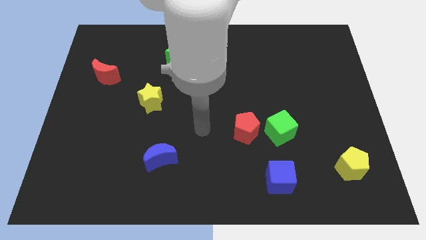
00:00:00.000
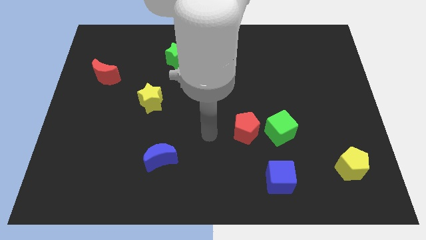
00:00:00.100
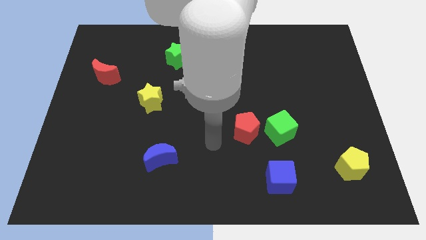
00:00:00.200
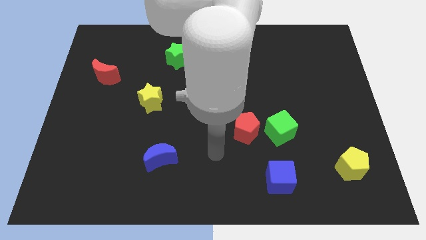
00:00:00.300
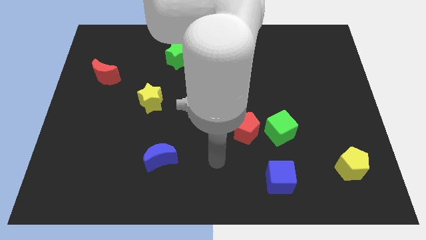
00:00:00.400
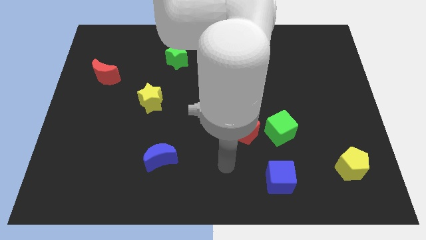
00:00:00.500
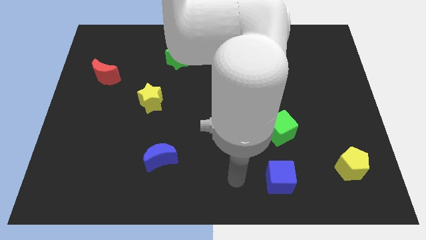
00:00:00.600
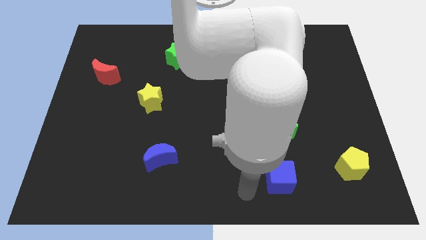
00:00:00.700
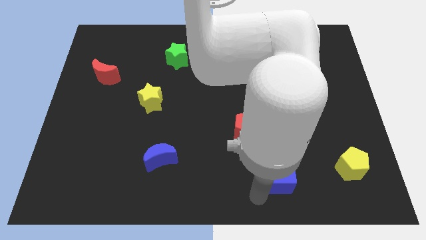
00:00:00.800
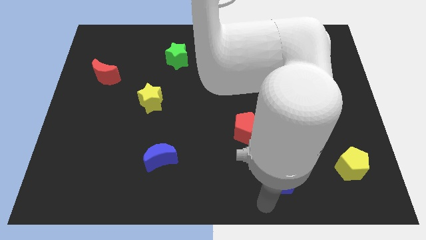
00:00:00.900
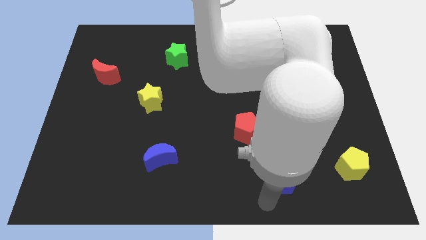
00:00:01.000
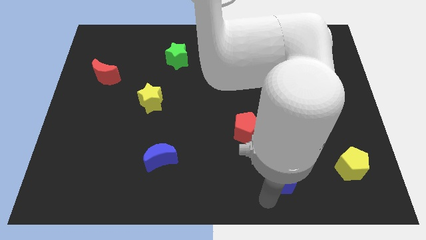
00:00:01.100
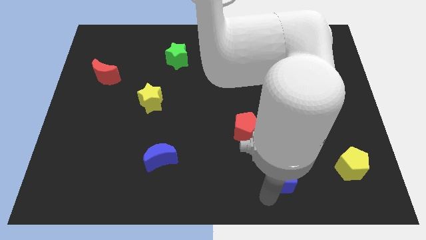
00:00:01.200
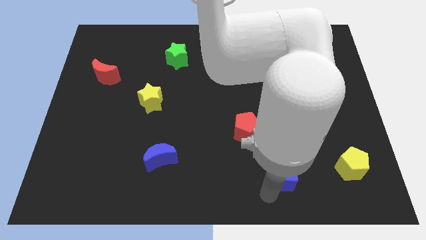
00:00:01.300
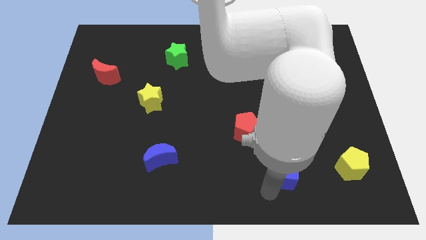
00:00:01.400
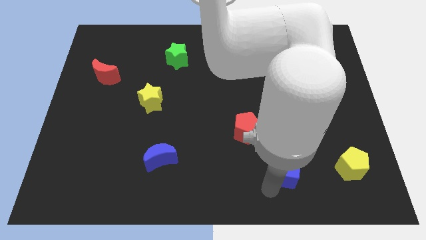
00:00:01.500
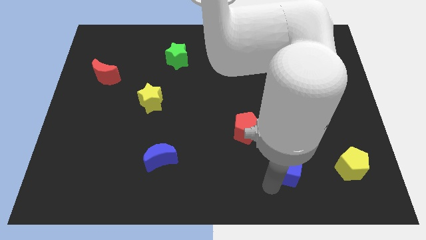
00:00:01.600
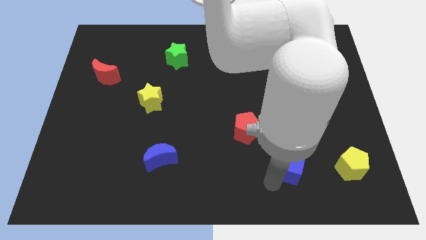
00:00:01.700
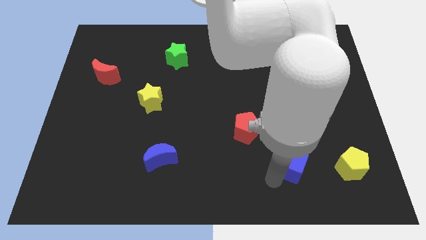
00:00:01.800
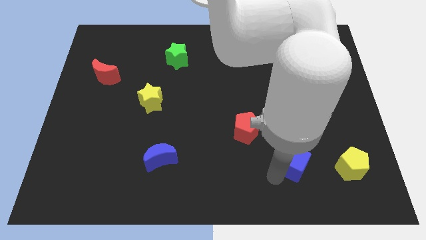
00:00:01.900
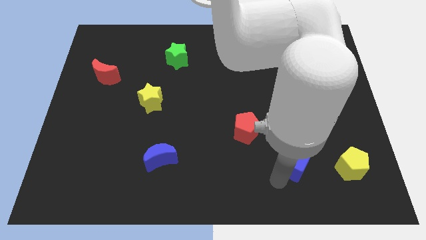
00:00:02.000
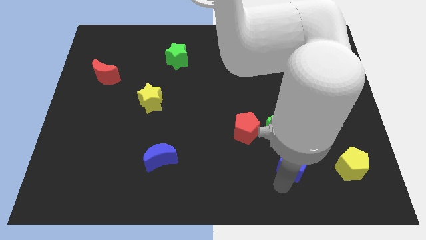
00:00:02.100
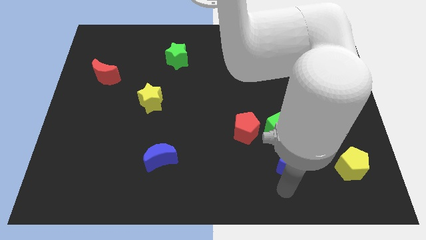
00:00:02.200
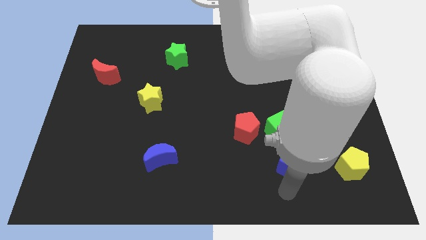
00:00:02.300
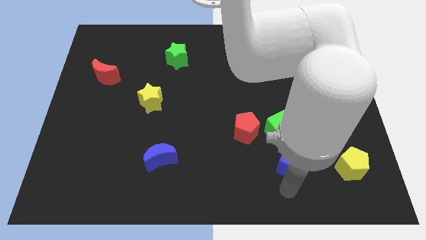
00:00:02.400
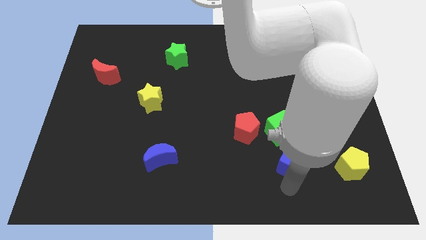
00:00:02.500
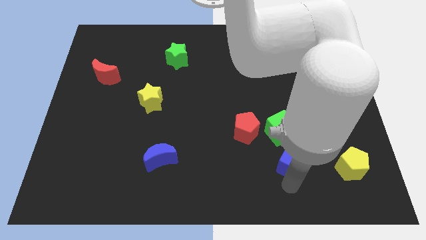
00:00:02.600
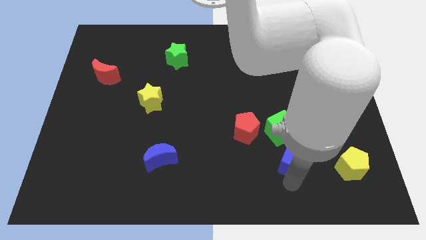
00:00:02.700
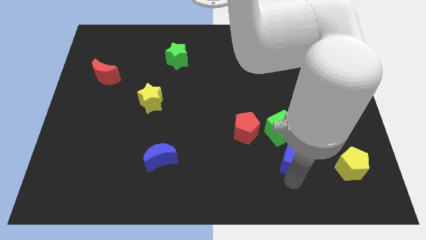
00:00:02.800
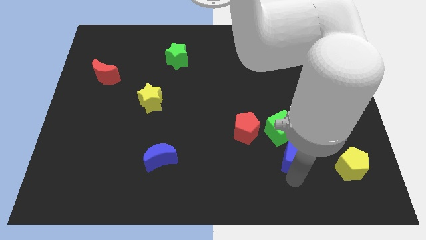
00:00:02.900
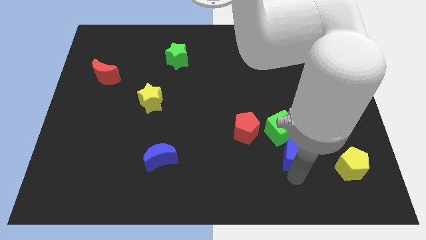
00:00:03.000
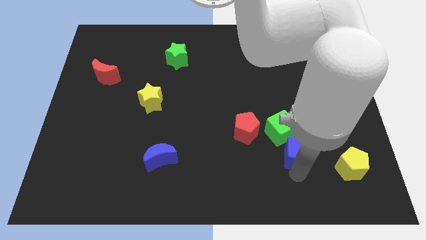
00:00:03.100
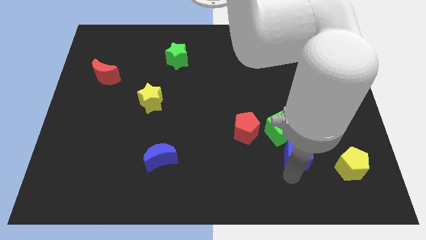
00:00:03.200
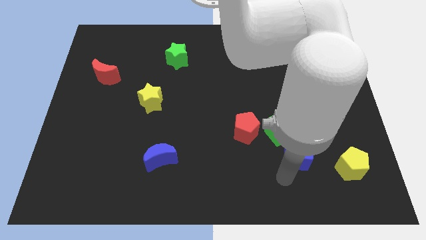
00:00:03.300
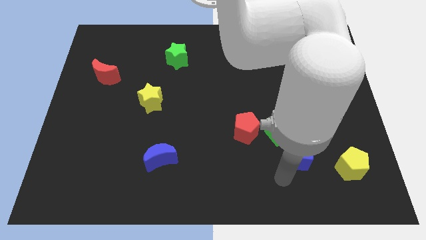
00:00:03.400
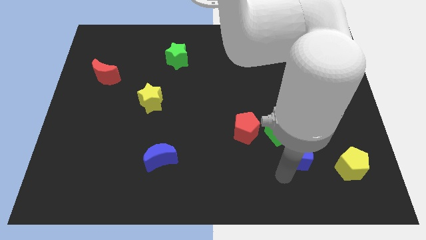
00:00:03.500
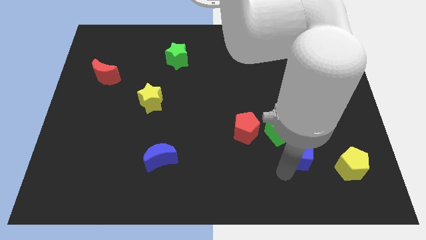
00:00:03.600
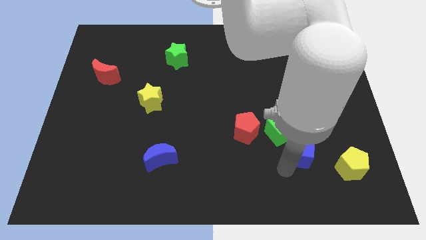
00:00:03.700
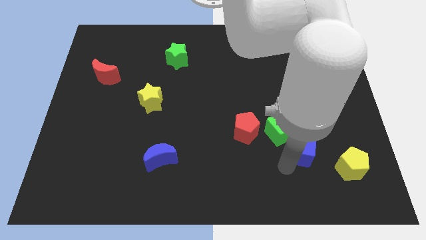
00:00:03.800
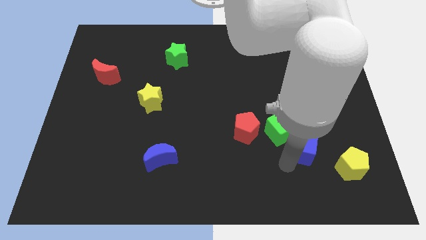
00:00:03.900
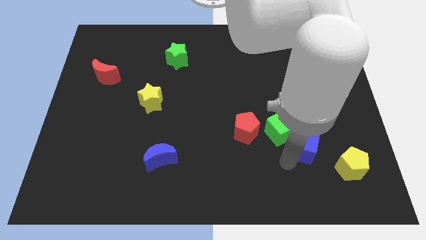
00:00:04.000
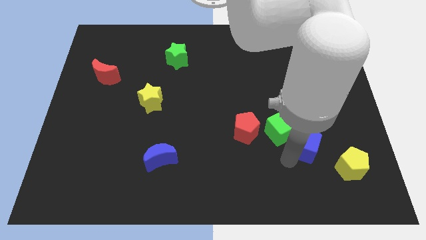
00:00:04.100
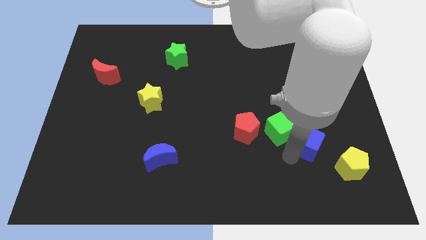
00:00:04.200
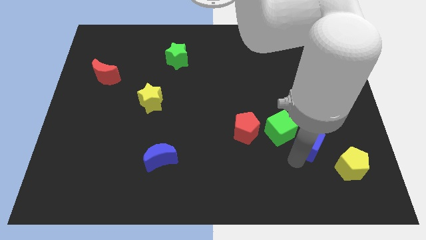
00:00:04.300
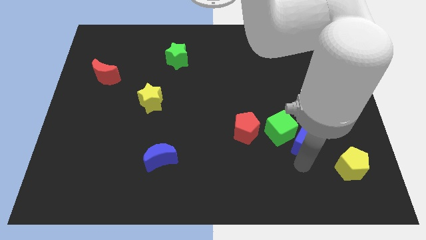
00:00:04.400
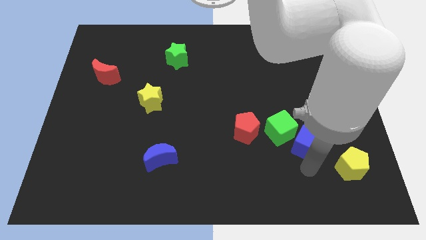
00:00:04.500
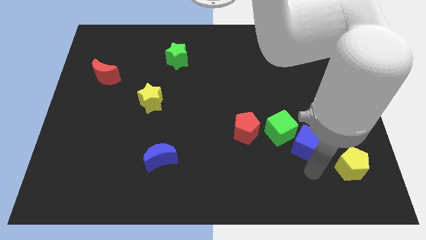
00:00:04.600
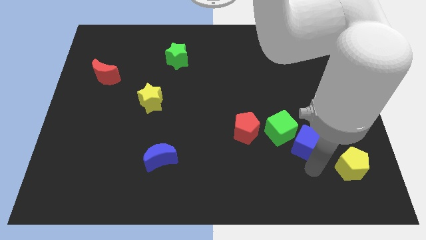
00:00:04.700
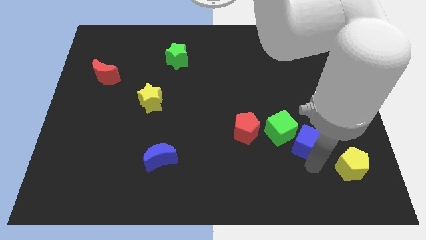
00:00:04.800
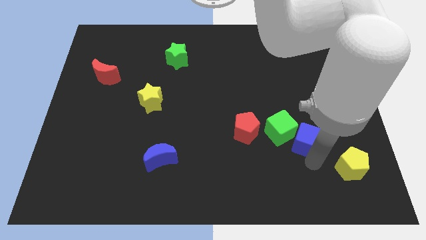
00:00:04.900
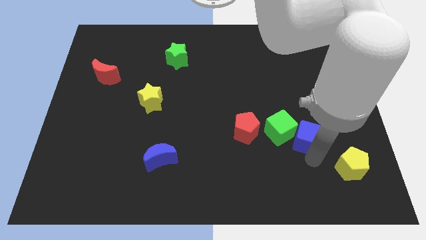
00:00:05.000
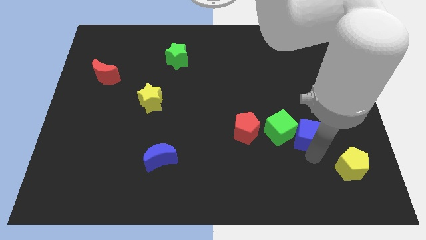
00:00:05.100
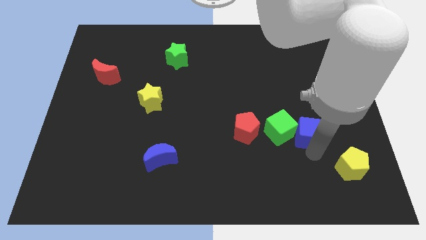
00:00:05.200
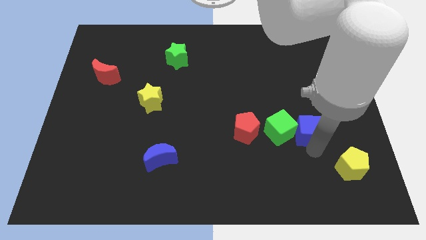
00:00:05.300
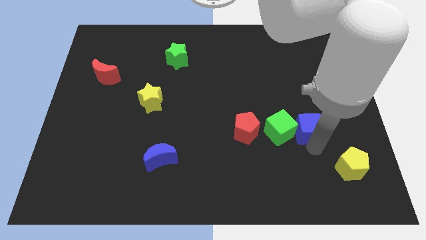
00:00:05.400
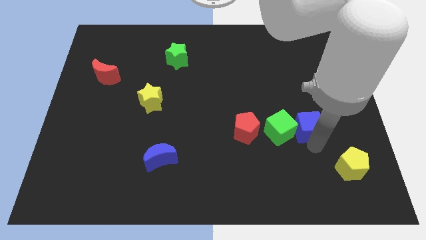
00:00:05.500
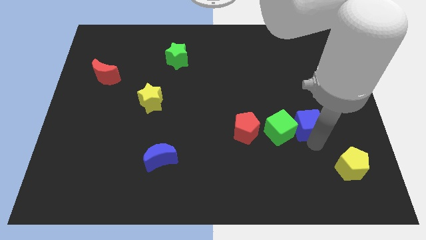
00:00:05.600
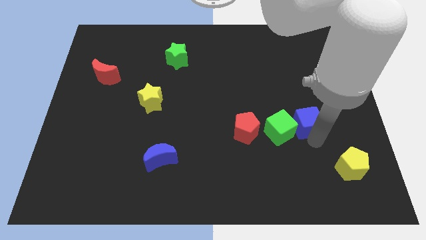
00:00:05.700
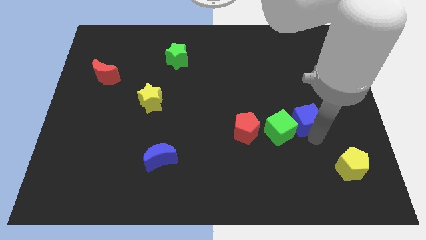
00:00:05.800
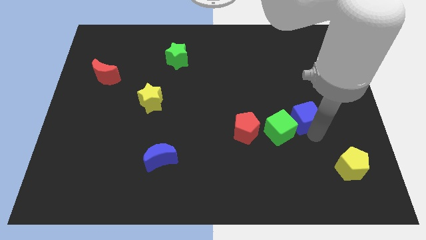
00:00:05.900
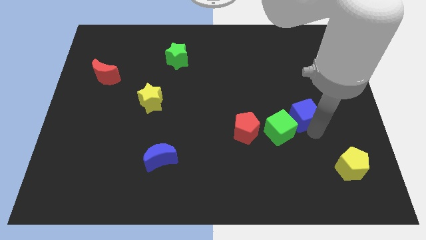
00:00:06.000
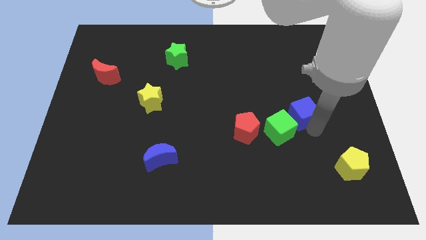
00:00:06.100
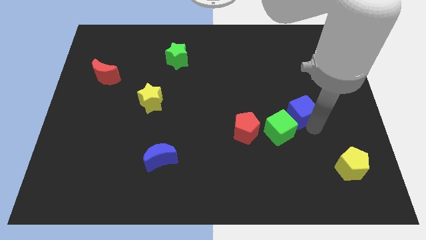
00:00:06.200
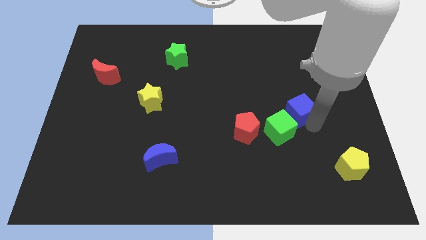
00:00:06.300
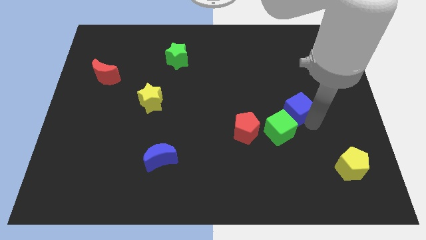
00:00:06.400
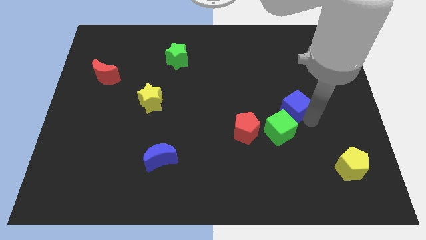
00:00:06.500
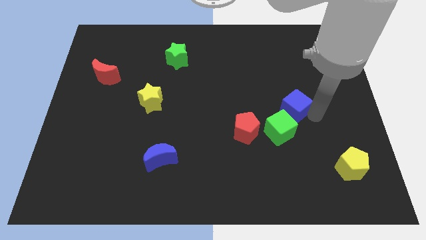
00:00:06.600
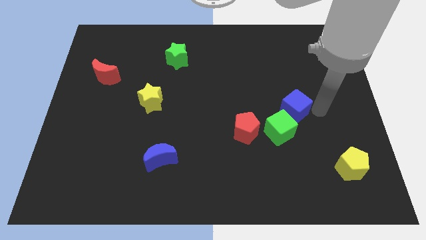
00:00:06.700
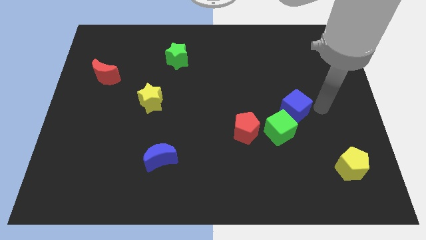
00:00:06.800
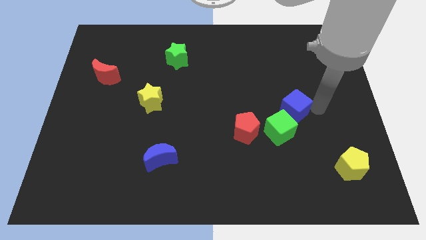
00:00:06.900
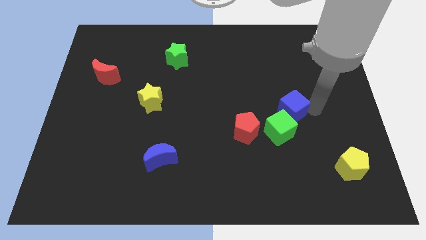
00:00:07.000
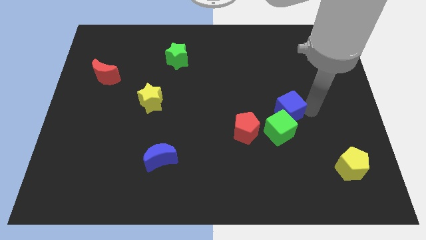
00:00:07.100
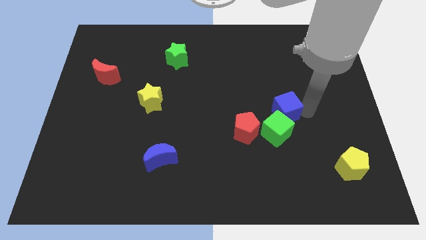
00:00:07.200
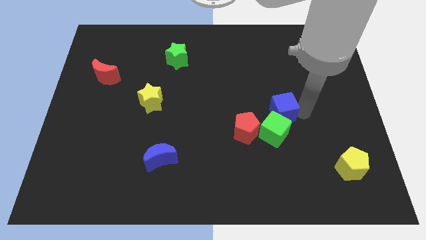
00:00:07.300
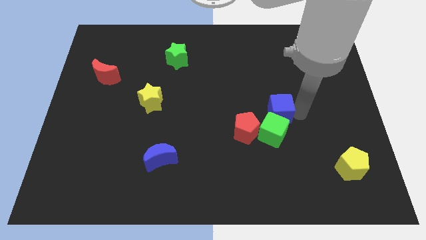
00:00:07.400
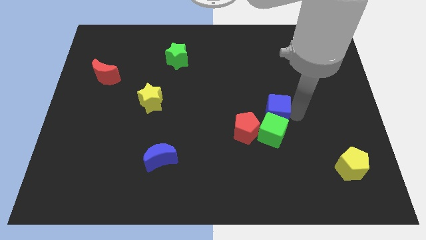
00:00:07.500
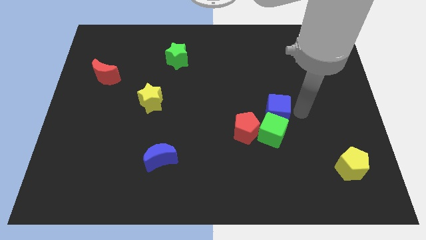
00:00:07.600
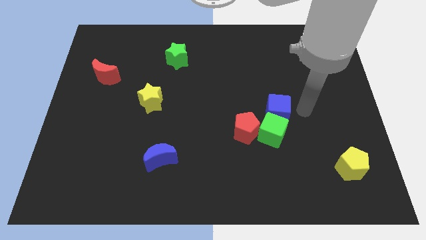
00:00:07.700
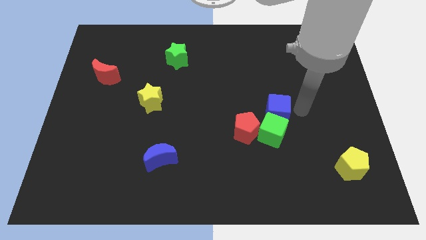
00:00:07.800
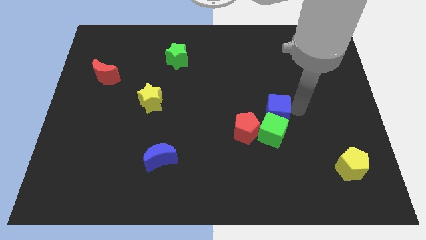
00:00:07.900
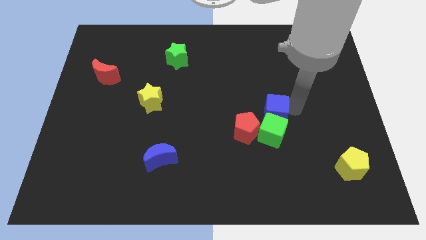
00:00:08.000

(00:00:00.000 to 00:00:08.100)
slide the blue cube to the top left of the green cube
